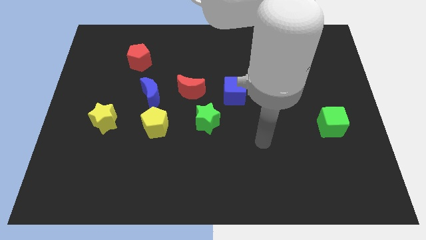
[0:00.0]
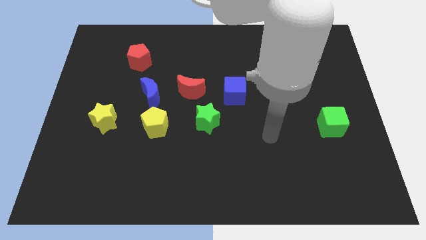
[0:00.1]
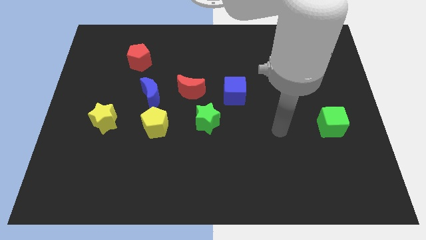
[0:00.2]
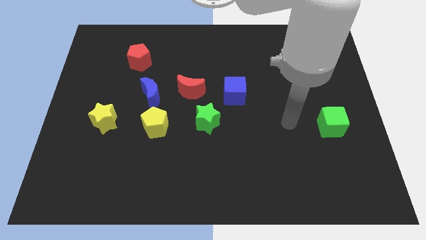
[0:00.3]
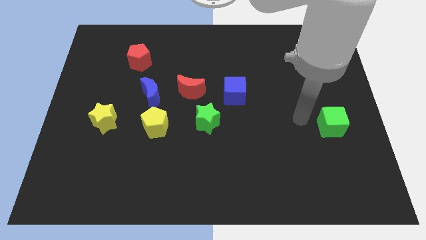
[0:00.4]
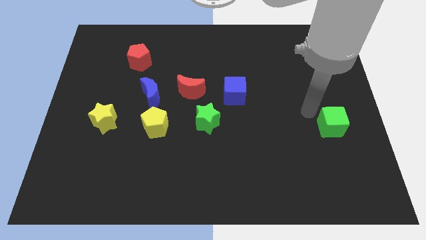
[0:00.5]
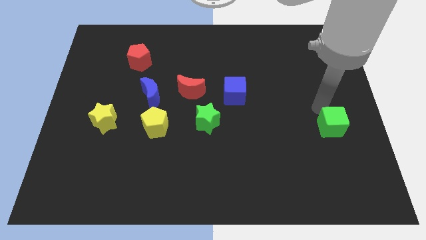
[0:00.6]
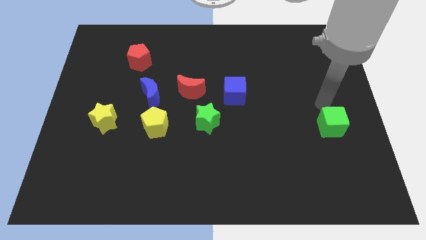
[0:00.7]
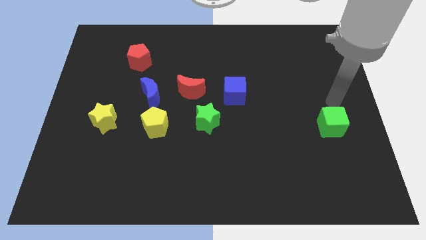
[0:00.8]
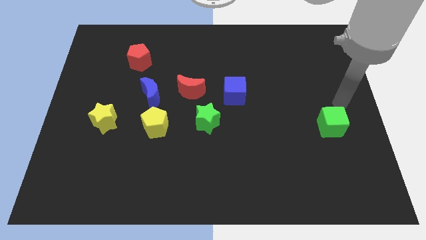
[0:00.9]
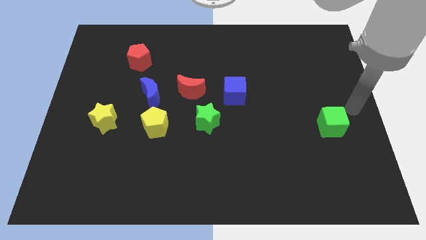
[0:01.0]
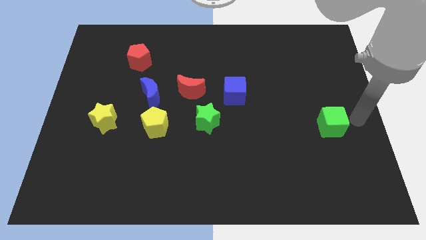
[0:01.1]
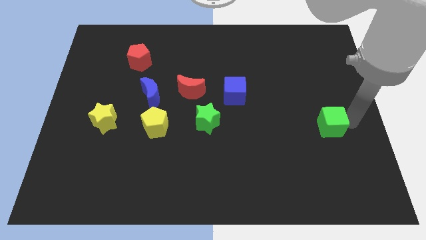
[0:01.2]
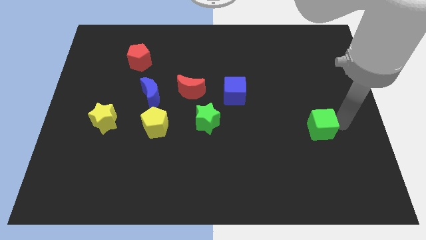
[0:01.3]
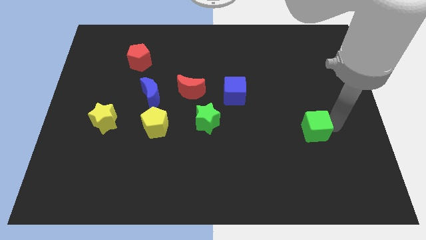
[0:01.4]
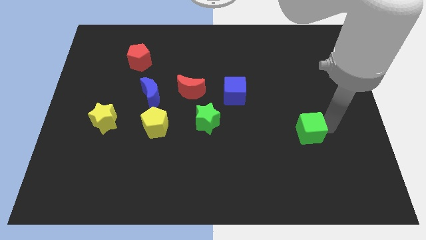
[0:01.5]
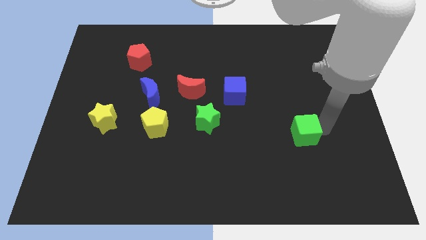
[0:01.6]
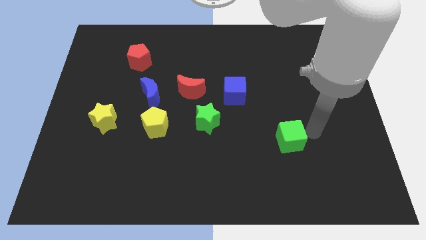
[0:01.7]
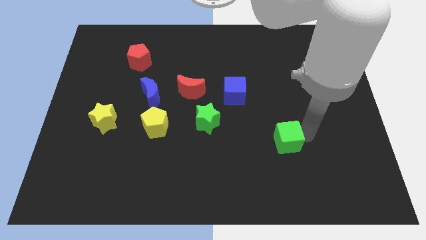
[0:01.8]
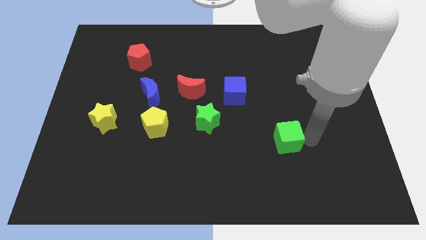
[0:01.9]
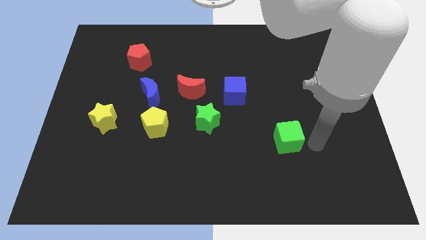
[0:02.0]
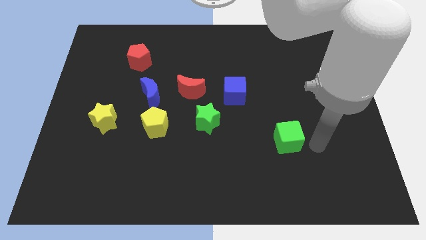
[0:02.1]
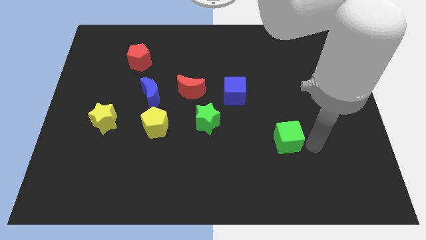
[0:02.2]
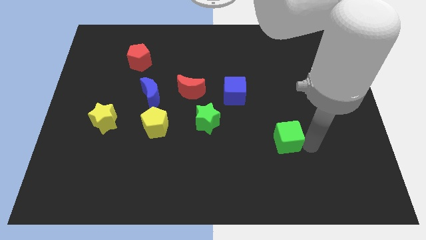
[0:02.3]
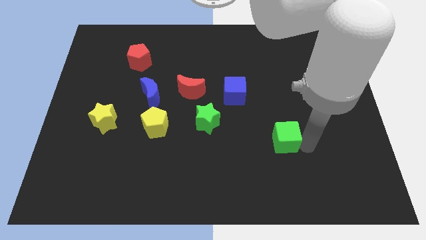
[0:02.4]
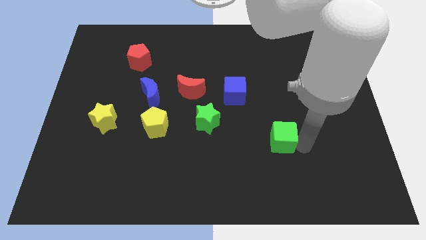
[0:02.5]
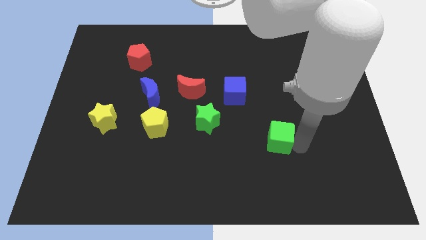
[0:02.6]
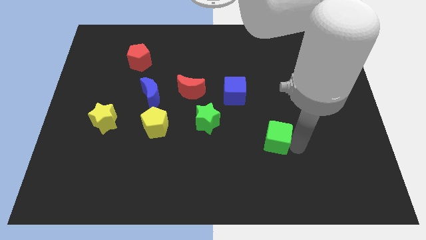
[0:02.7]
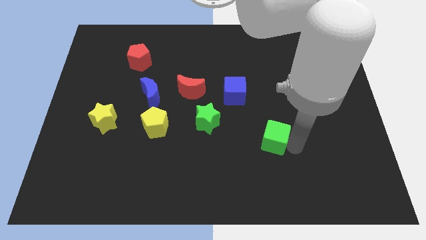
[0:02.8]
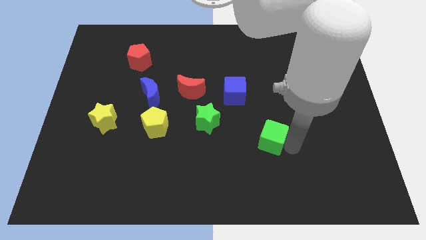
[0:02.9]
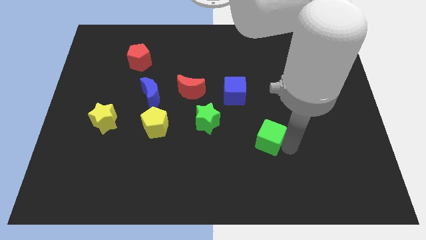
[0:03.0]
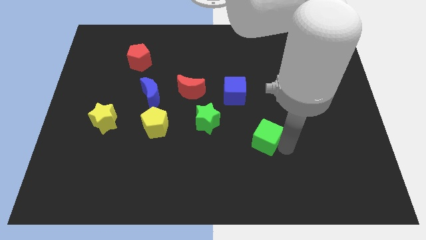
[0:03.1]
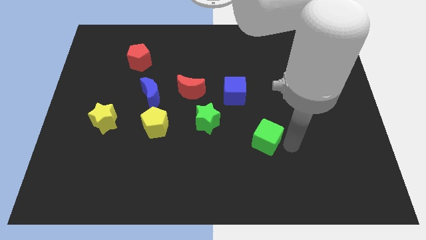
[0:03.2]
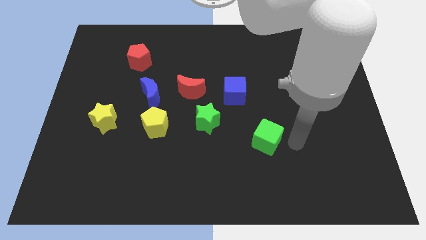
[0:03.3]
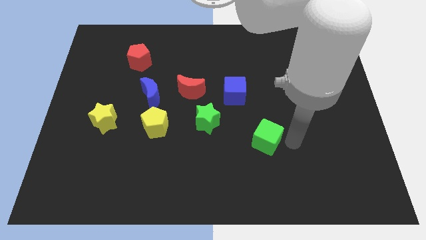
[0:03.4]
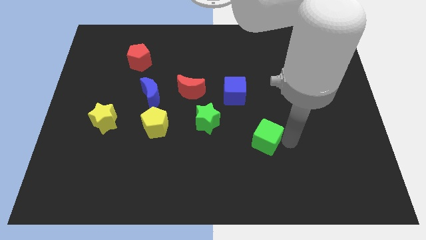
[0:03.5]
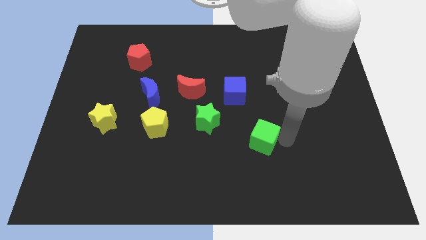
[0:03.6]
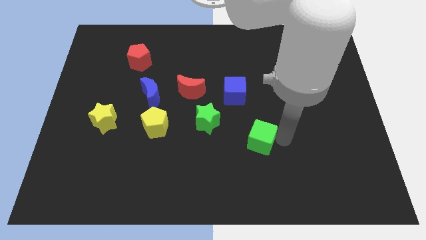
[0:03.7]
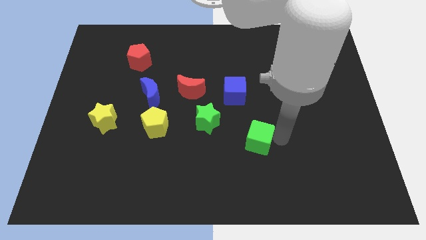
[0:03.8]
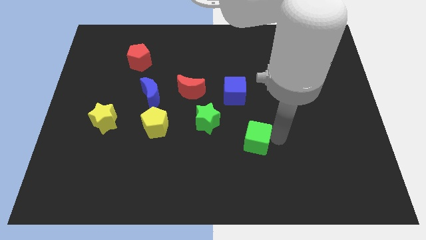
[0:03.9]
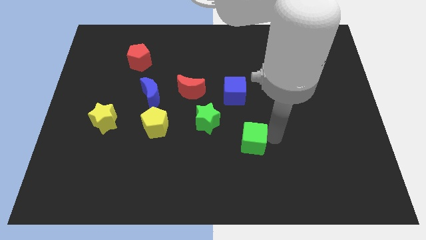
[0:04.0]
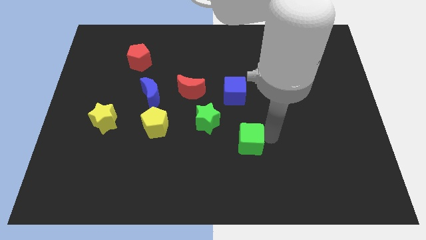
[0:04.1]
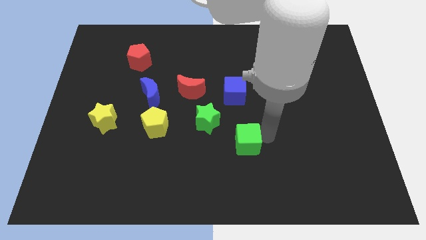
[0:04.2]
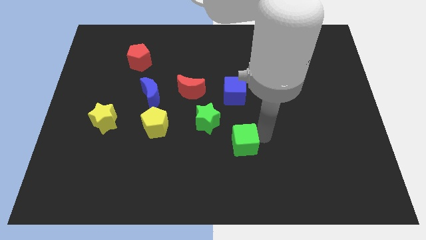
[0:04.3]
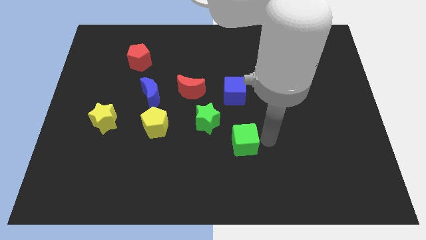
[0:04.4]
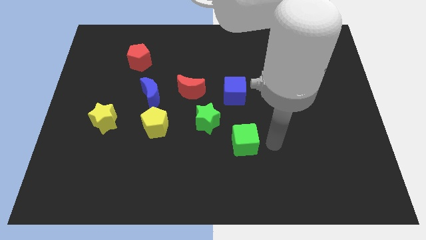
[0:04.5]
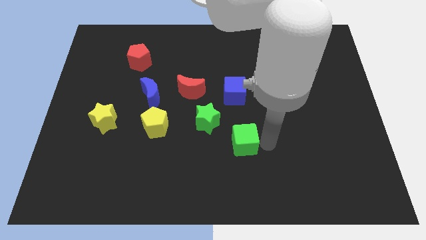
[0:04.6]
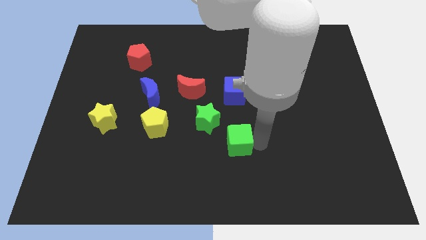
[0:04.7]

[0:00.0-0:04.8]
slide the green cube left

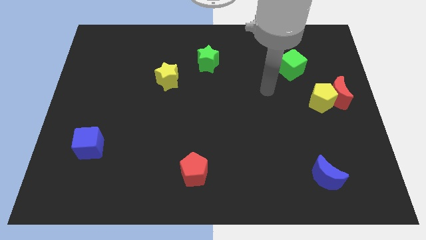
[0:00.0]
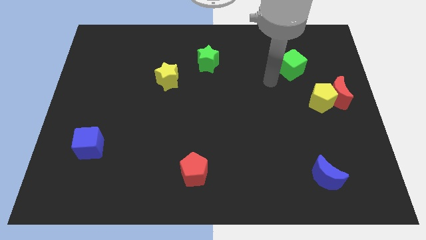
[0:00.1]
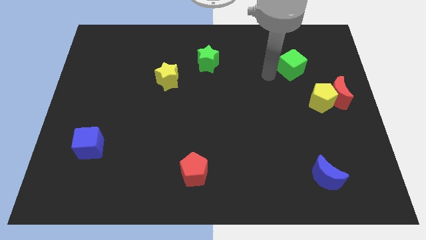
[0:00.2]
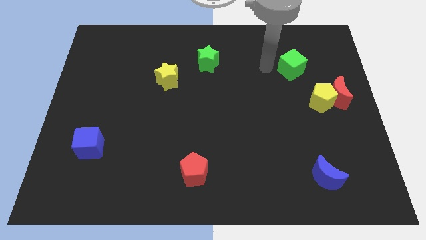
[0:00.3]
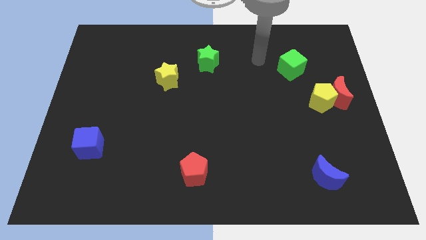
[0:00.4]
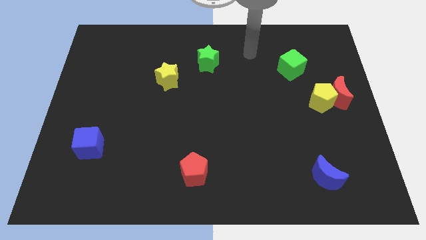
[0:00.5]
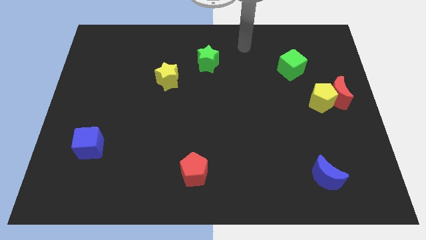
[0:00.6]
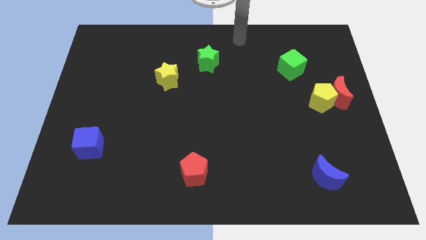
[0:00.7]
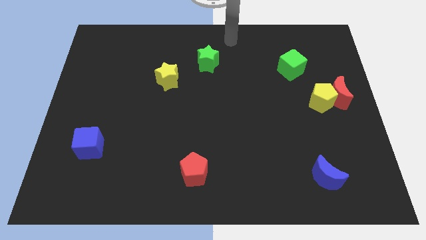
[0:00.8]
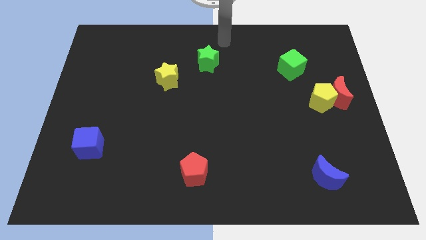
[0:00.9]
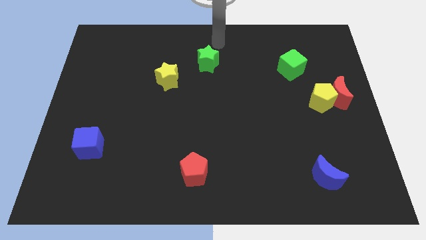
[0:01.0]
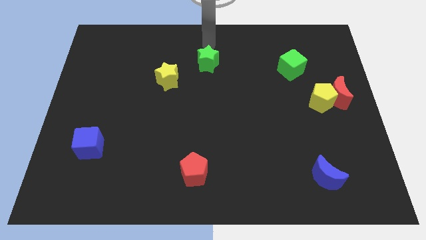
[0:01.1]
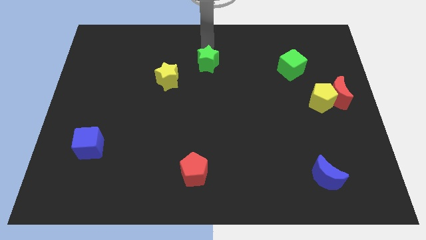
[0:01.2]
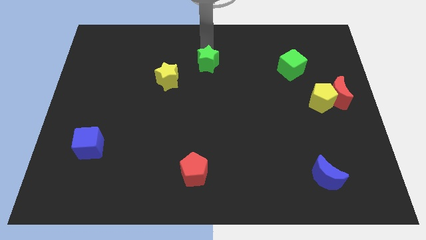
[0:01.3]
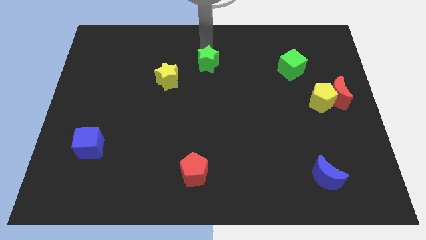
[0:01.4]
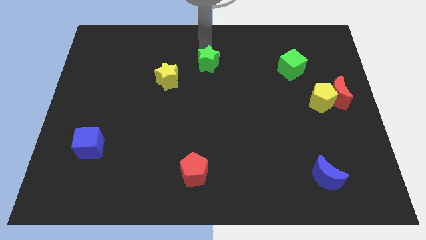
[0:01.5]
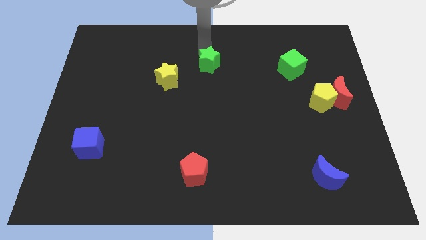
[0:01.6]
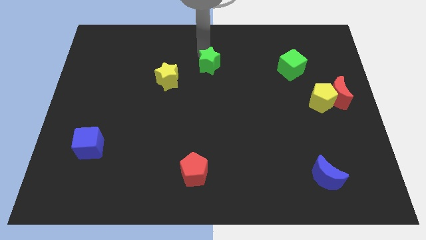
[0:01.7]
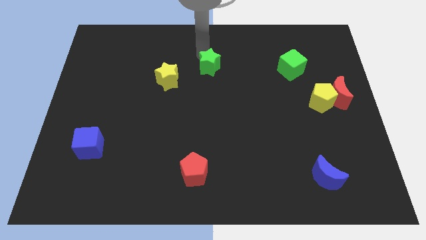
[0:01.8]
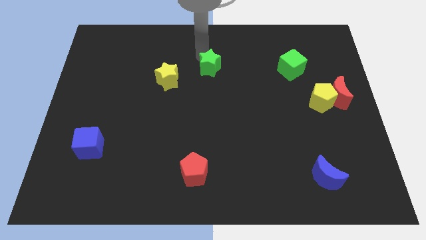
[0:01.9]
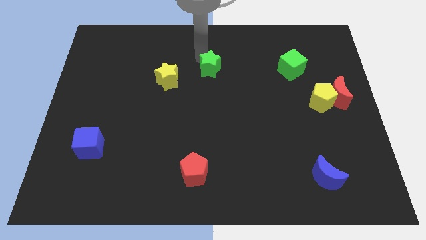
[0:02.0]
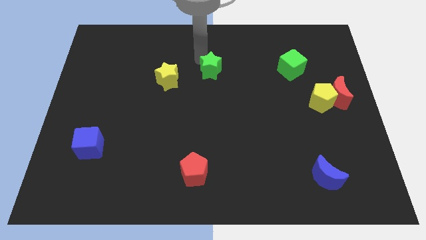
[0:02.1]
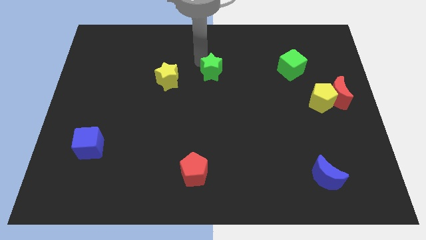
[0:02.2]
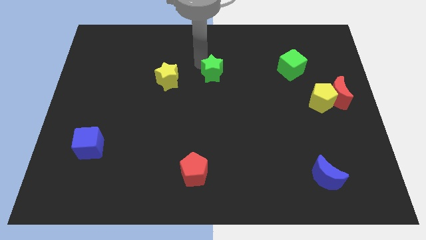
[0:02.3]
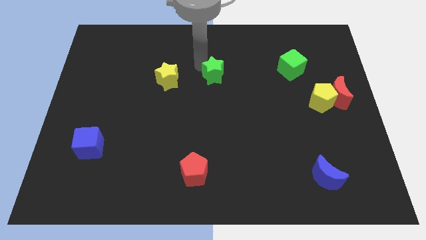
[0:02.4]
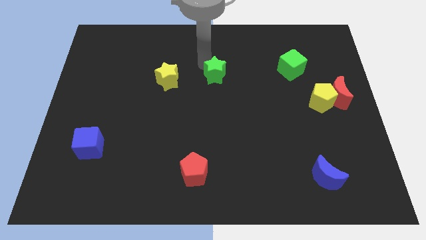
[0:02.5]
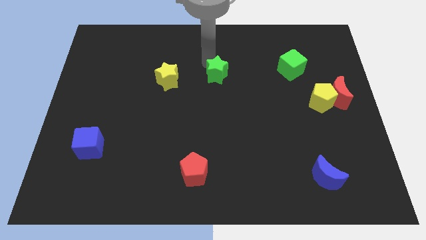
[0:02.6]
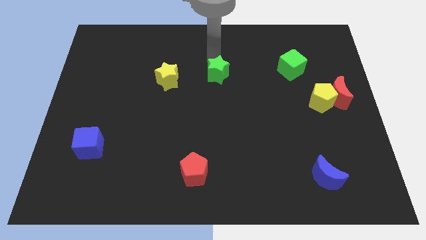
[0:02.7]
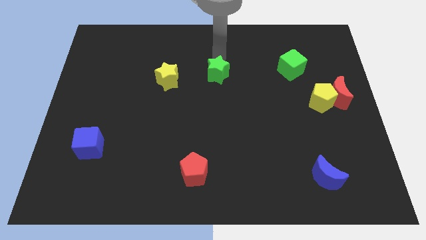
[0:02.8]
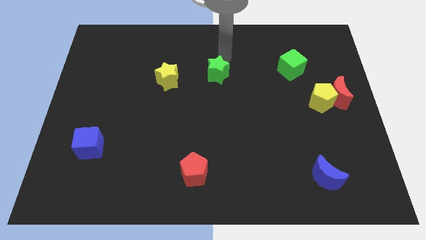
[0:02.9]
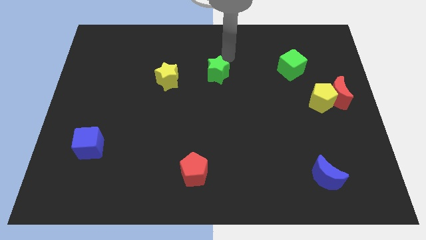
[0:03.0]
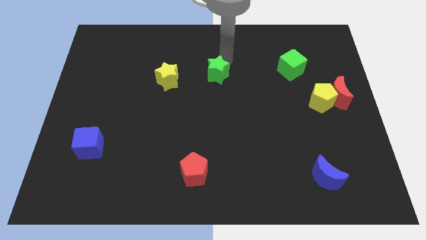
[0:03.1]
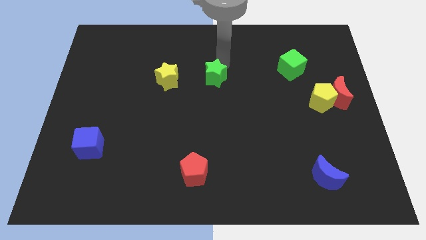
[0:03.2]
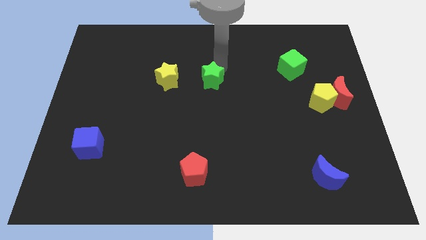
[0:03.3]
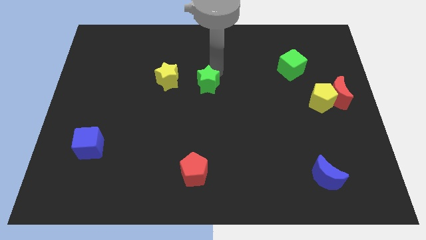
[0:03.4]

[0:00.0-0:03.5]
move the green star downwards slightly
